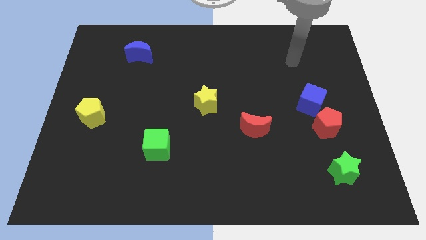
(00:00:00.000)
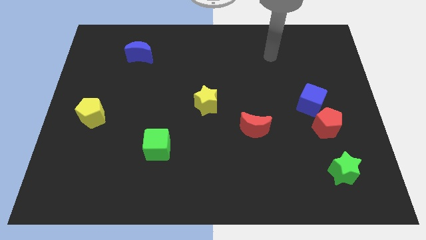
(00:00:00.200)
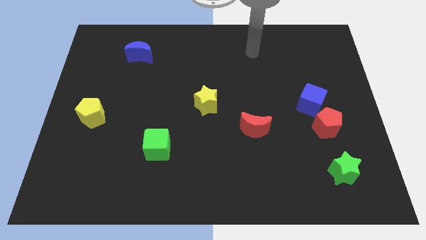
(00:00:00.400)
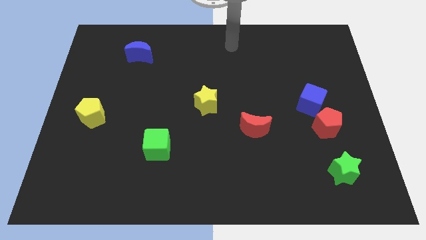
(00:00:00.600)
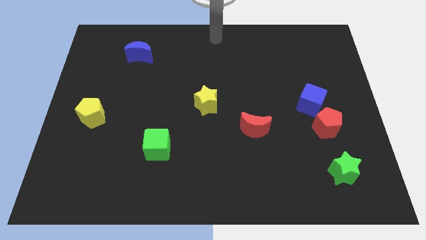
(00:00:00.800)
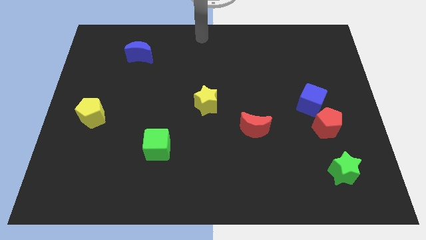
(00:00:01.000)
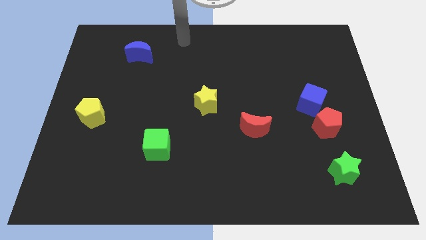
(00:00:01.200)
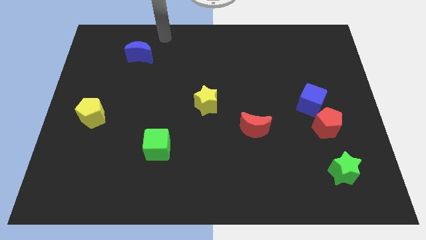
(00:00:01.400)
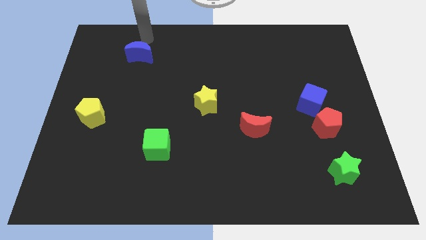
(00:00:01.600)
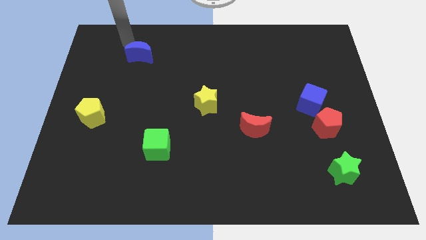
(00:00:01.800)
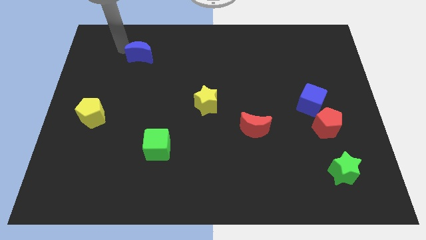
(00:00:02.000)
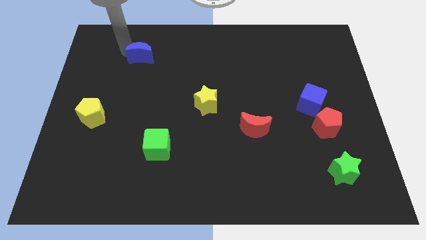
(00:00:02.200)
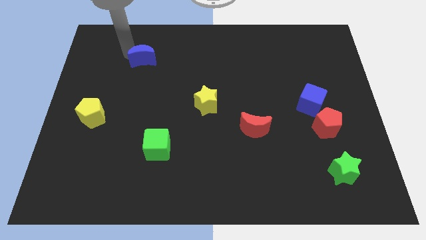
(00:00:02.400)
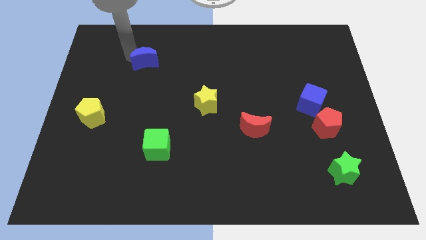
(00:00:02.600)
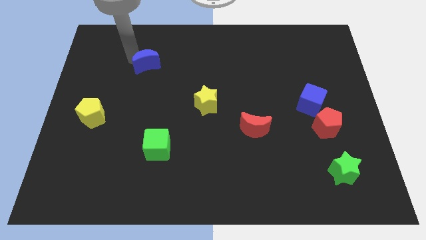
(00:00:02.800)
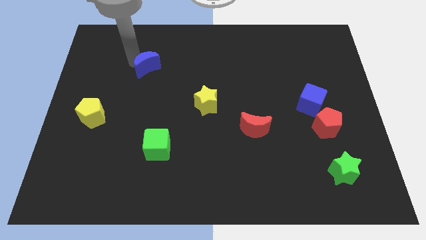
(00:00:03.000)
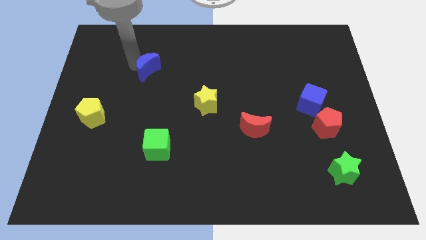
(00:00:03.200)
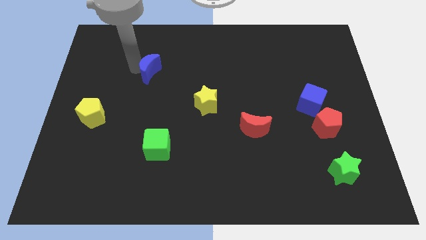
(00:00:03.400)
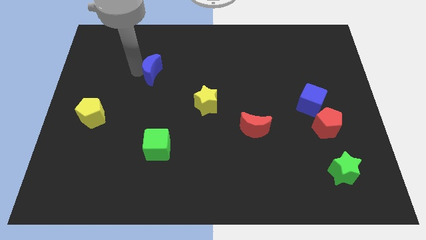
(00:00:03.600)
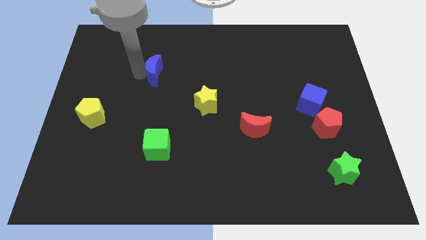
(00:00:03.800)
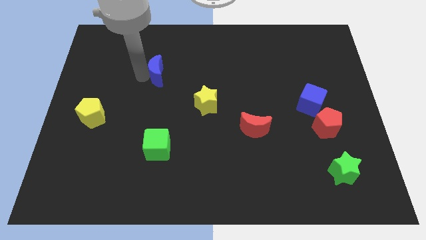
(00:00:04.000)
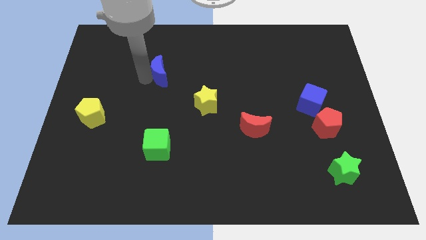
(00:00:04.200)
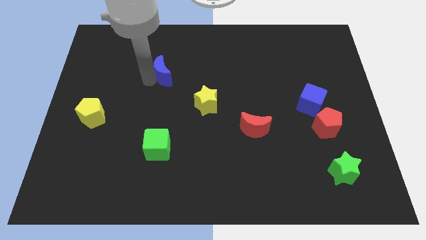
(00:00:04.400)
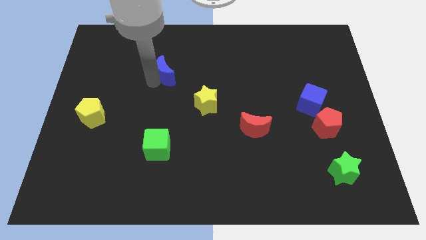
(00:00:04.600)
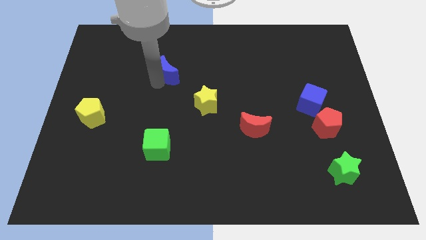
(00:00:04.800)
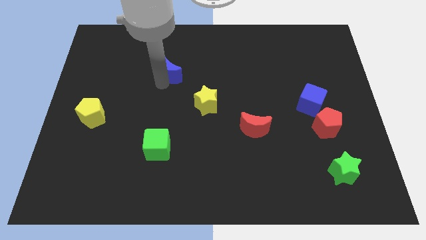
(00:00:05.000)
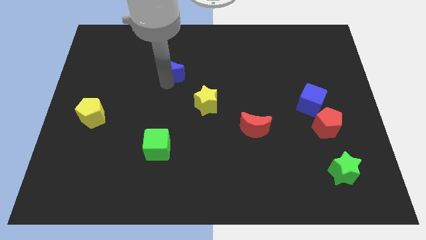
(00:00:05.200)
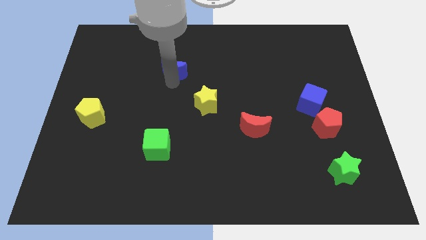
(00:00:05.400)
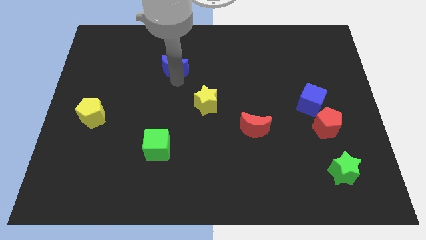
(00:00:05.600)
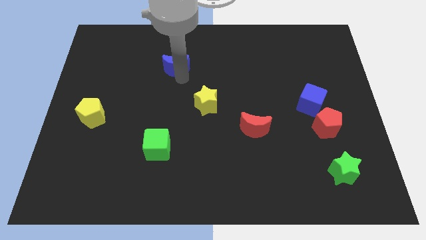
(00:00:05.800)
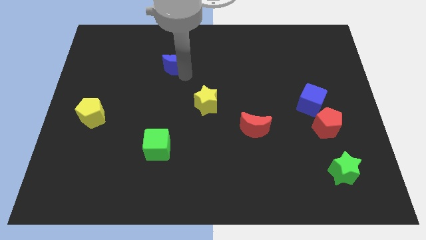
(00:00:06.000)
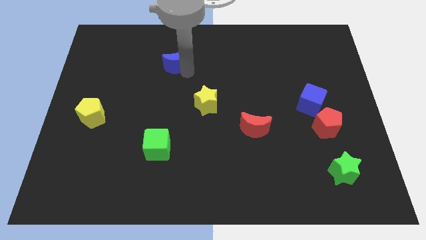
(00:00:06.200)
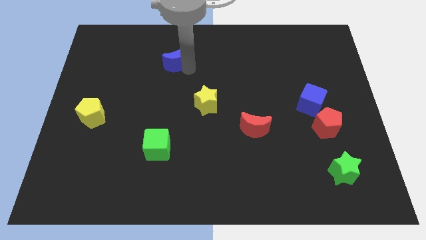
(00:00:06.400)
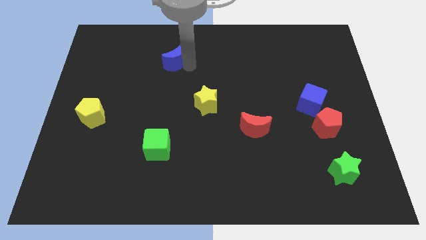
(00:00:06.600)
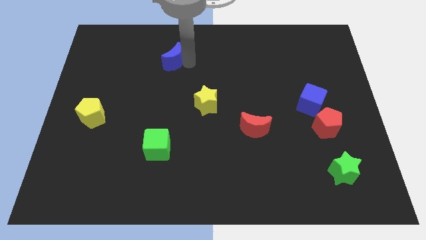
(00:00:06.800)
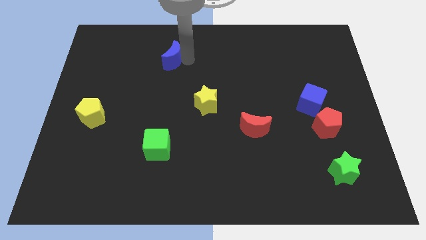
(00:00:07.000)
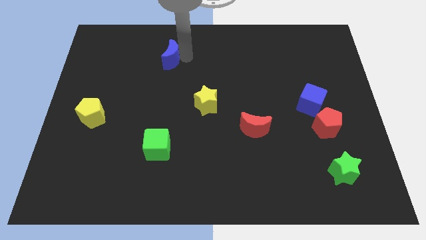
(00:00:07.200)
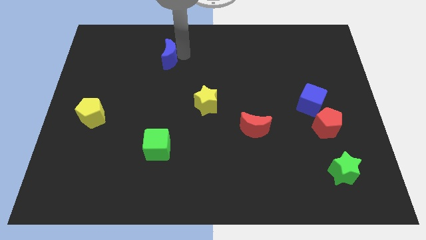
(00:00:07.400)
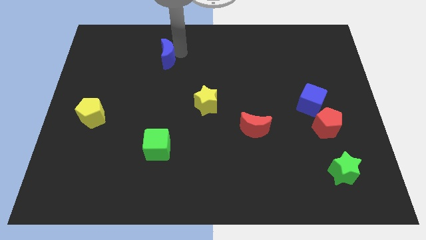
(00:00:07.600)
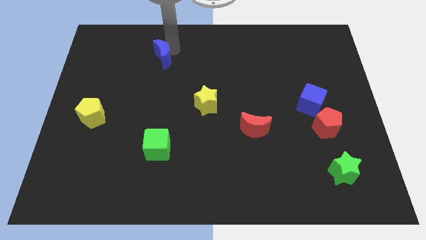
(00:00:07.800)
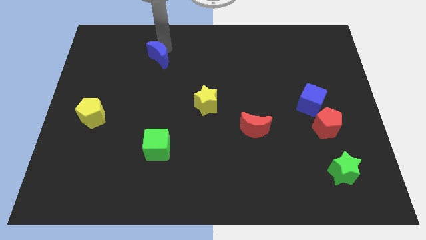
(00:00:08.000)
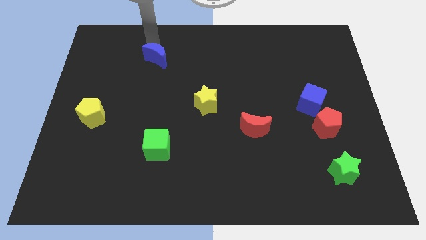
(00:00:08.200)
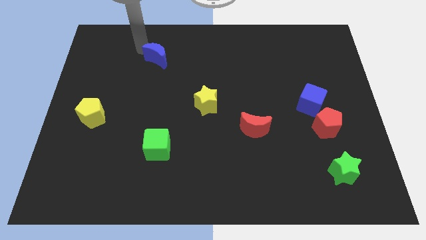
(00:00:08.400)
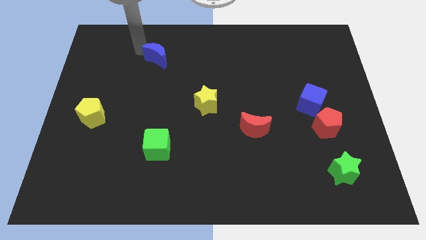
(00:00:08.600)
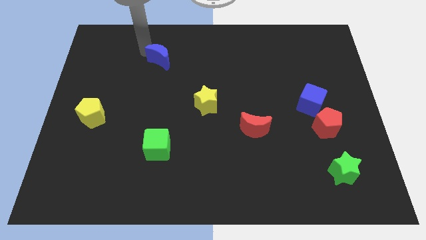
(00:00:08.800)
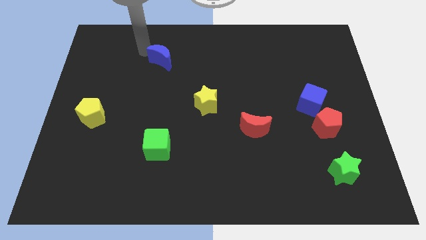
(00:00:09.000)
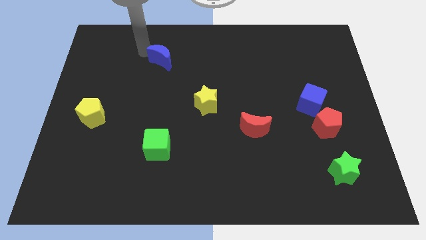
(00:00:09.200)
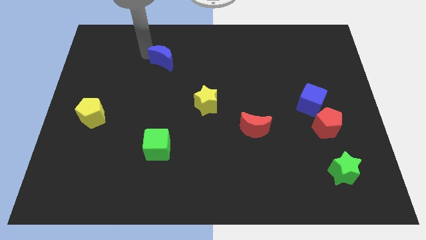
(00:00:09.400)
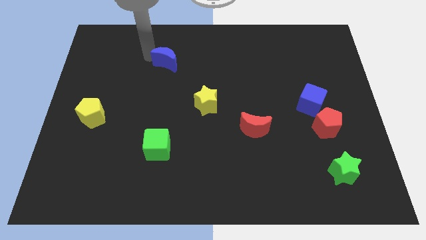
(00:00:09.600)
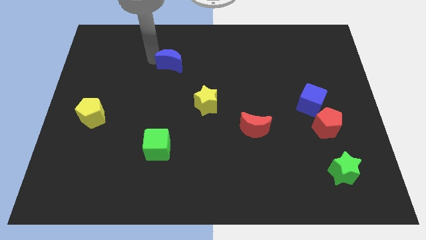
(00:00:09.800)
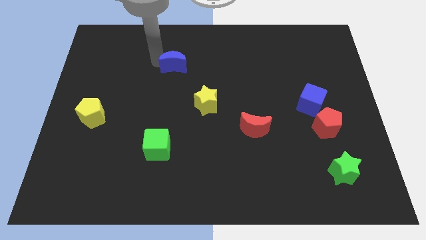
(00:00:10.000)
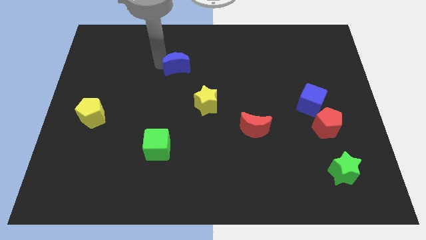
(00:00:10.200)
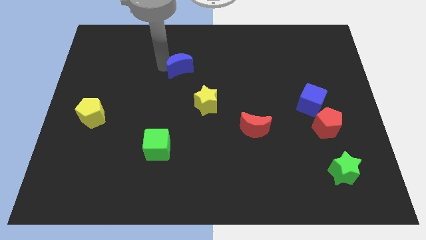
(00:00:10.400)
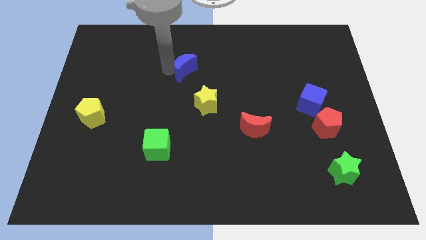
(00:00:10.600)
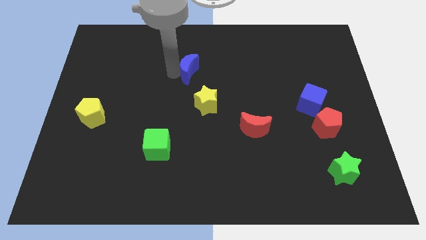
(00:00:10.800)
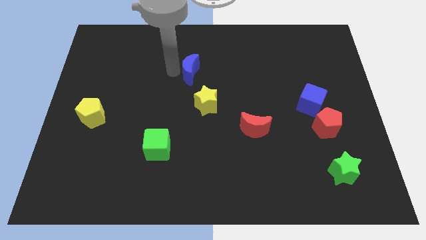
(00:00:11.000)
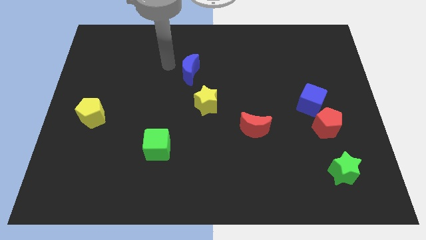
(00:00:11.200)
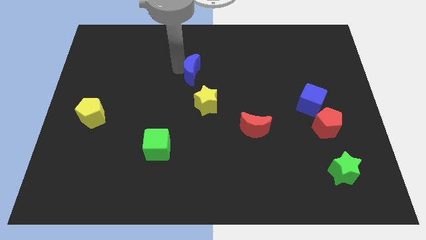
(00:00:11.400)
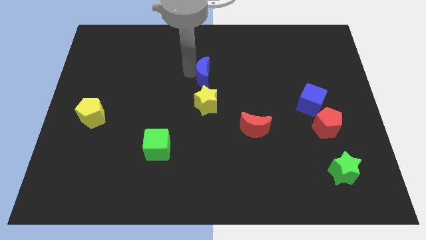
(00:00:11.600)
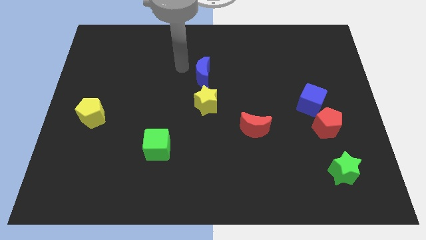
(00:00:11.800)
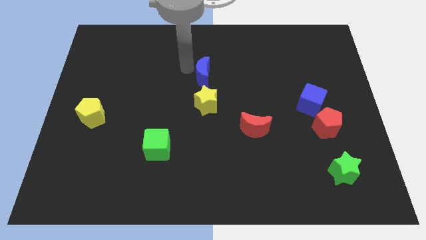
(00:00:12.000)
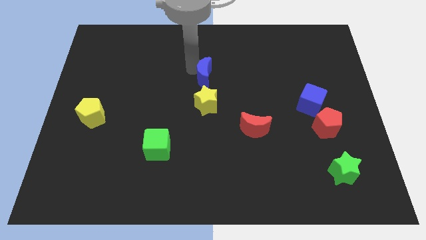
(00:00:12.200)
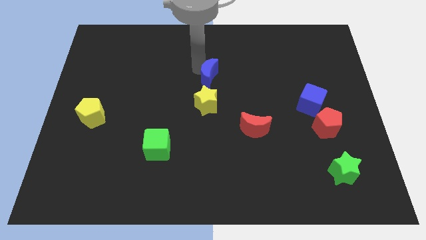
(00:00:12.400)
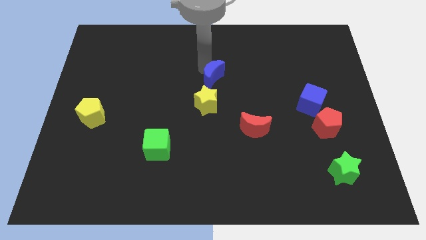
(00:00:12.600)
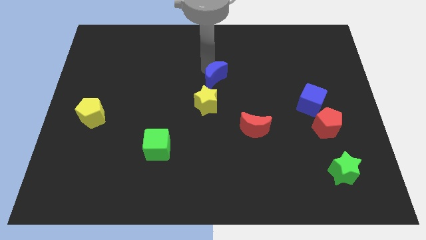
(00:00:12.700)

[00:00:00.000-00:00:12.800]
move the blue moon to the top right of the yellow star
